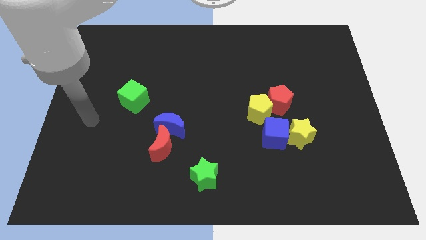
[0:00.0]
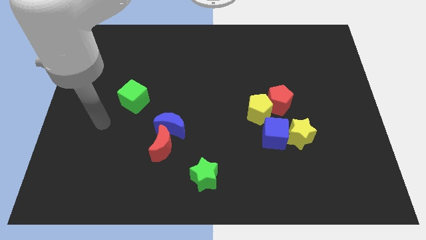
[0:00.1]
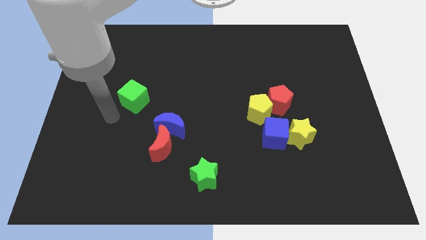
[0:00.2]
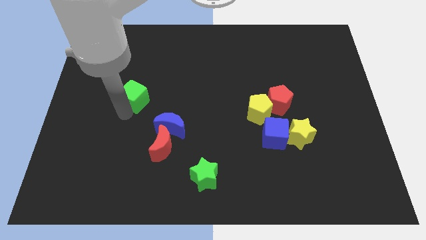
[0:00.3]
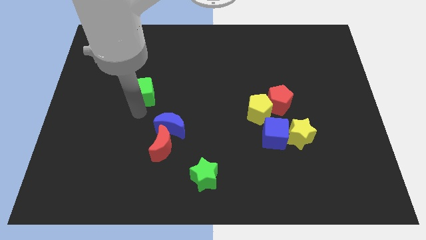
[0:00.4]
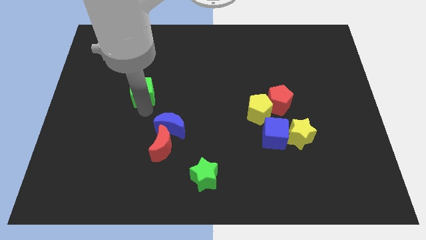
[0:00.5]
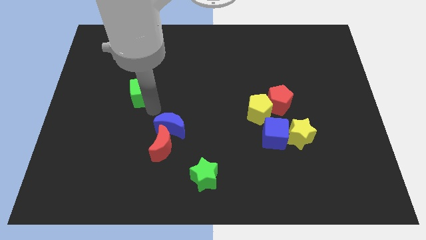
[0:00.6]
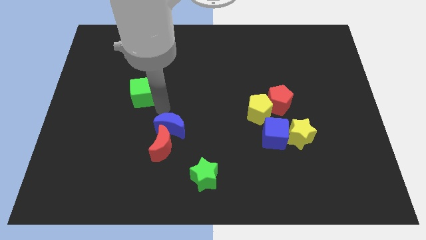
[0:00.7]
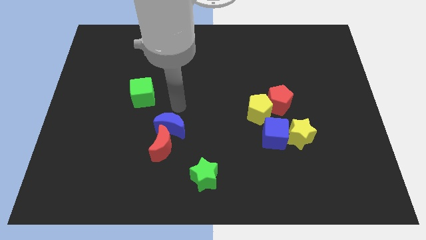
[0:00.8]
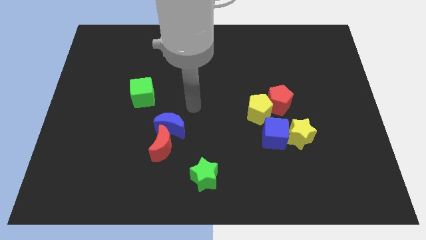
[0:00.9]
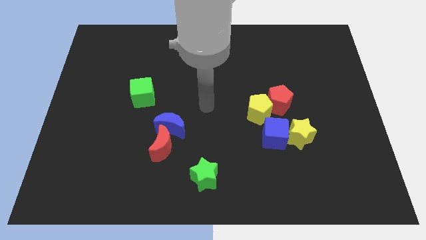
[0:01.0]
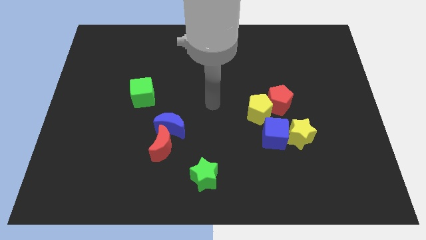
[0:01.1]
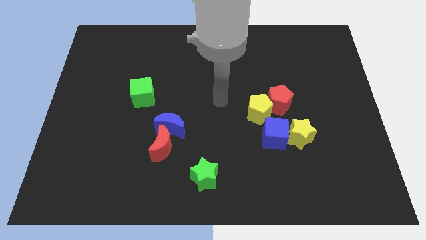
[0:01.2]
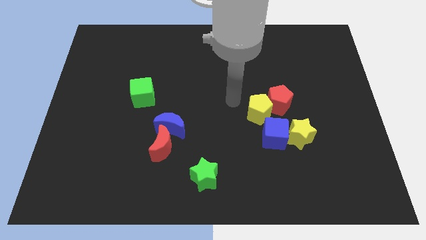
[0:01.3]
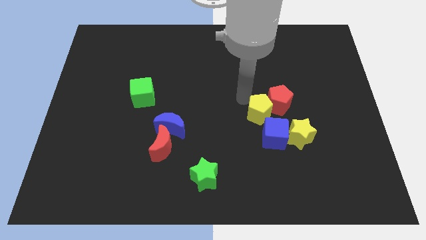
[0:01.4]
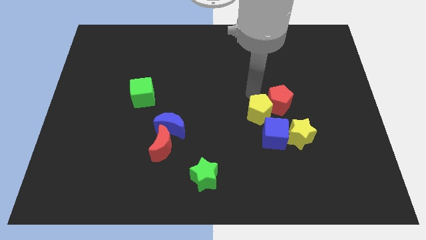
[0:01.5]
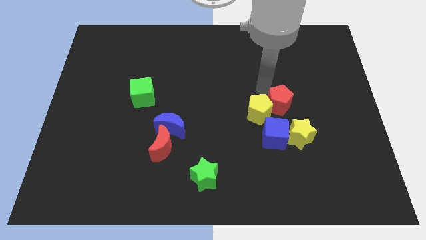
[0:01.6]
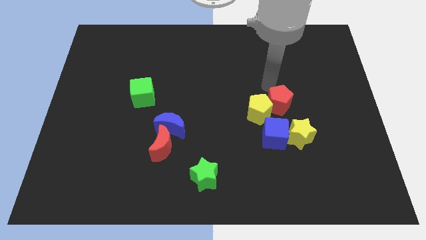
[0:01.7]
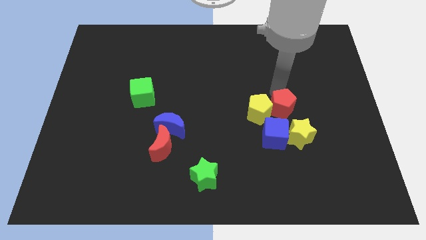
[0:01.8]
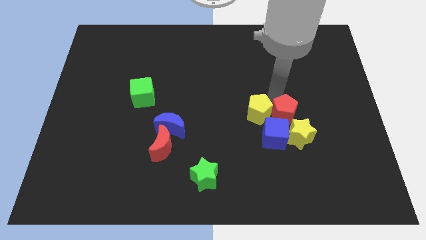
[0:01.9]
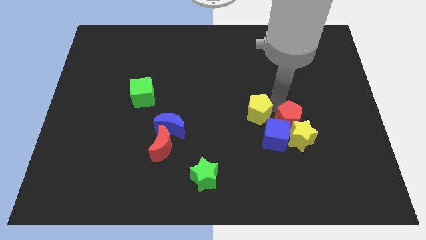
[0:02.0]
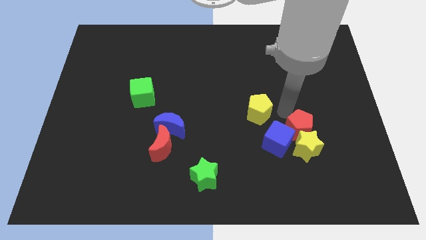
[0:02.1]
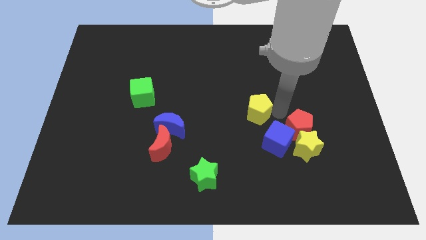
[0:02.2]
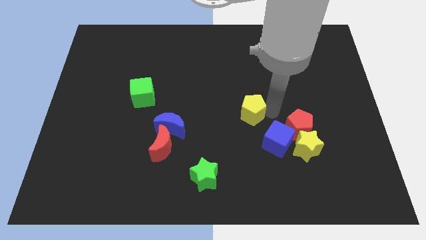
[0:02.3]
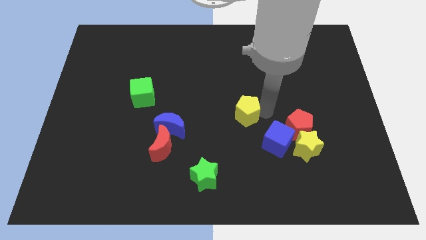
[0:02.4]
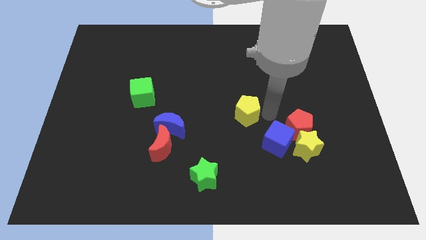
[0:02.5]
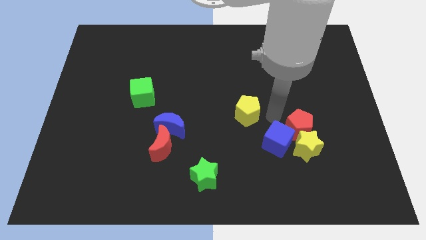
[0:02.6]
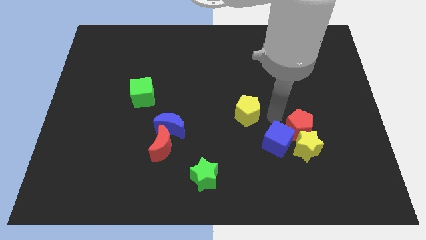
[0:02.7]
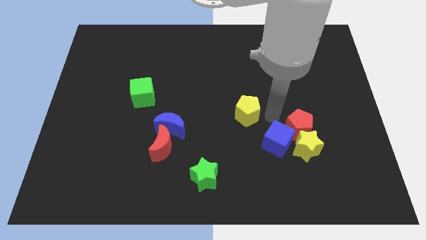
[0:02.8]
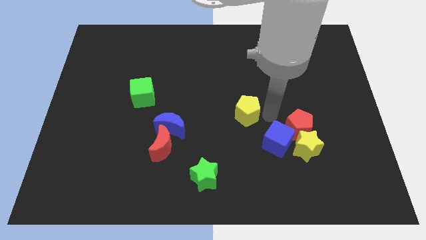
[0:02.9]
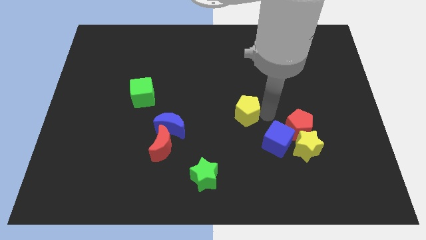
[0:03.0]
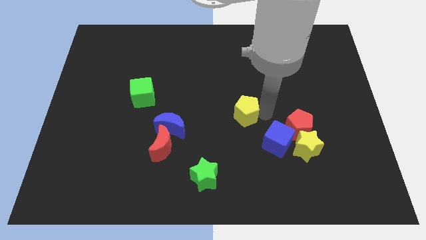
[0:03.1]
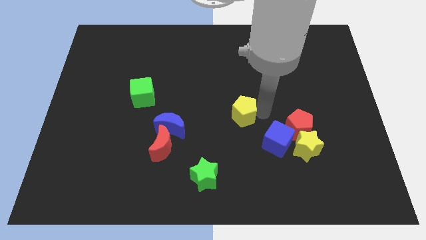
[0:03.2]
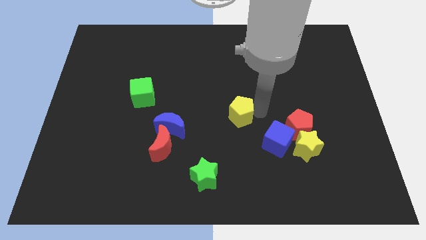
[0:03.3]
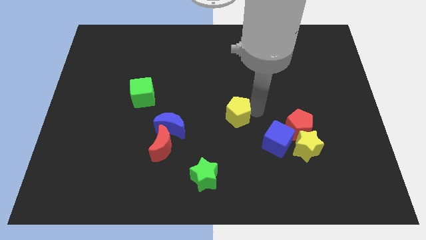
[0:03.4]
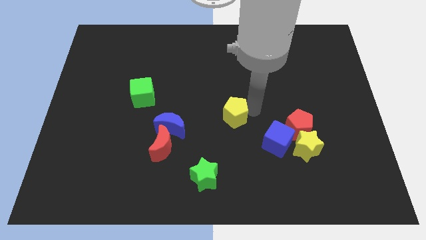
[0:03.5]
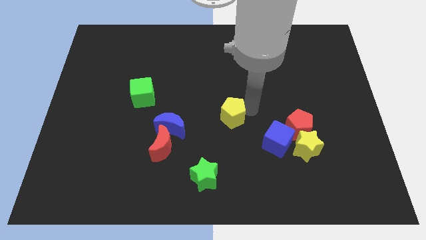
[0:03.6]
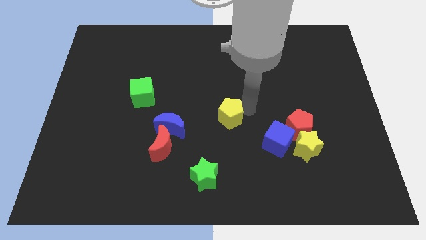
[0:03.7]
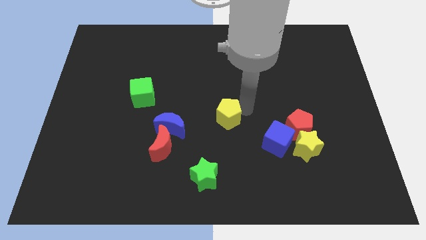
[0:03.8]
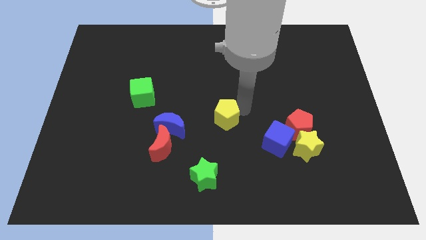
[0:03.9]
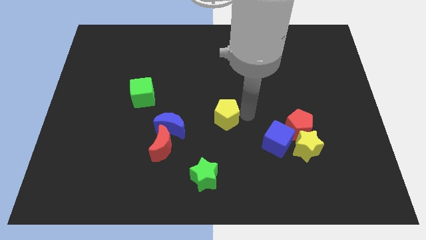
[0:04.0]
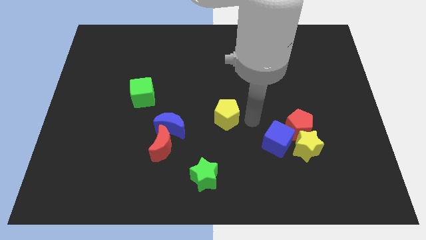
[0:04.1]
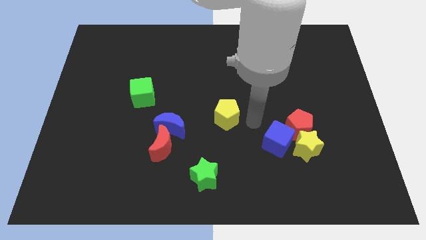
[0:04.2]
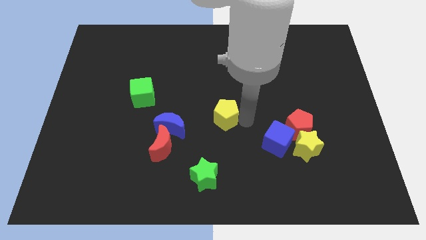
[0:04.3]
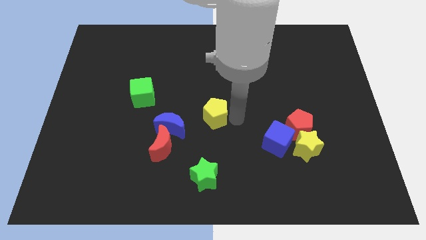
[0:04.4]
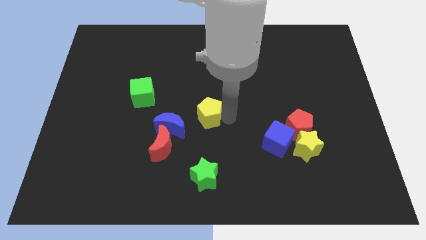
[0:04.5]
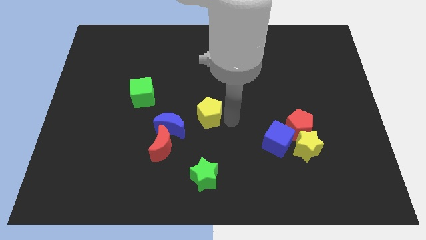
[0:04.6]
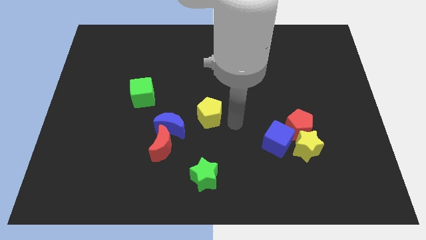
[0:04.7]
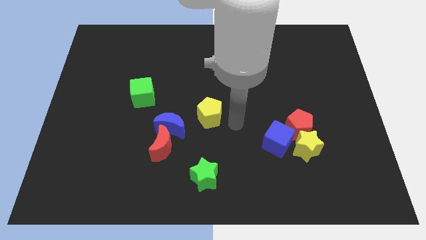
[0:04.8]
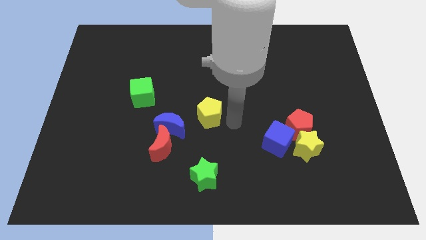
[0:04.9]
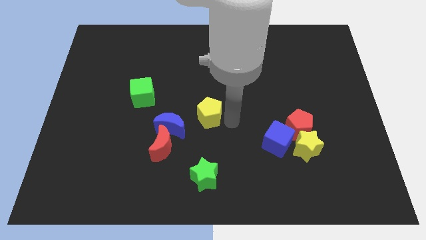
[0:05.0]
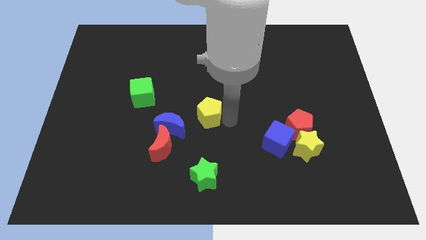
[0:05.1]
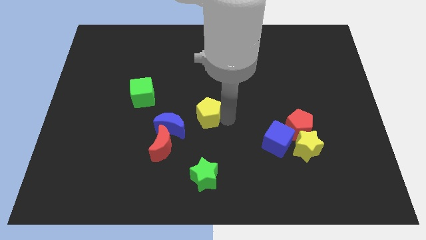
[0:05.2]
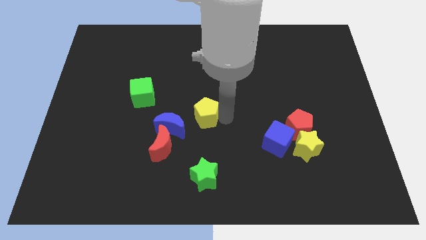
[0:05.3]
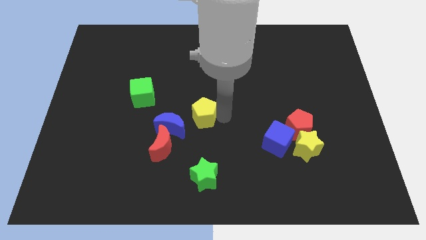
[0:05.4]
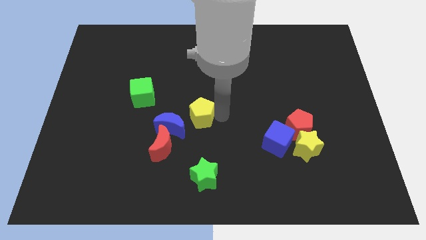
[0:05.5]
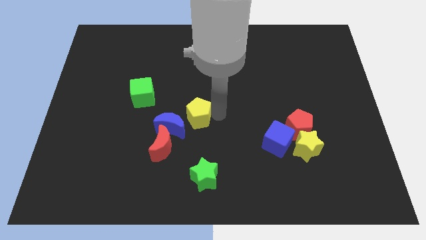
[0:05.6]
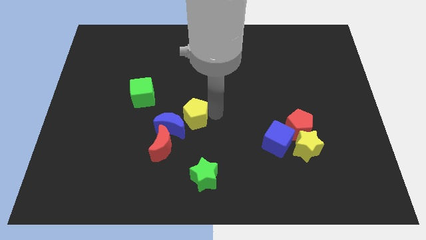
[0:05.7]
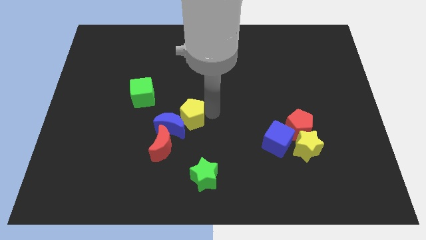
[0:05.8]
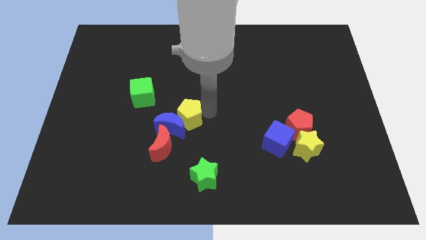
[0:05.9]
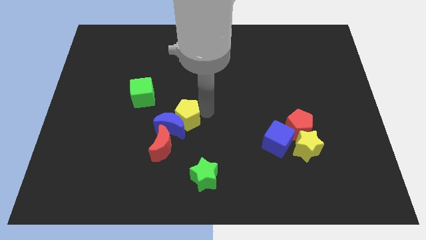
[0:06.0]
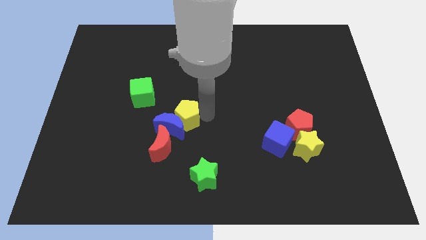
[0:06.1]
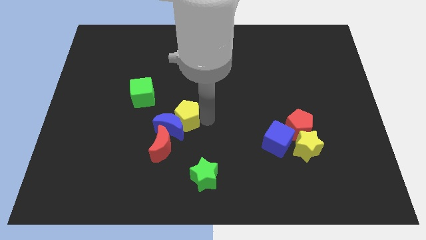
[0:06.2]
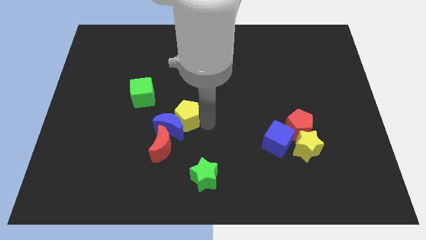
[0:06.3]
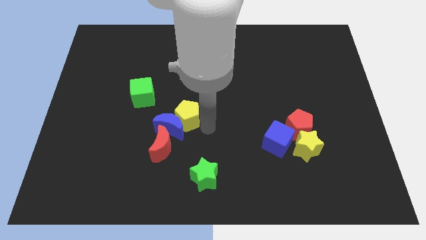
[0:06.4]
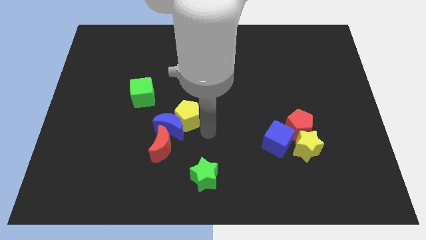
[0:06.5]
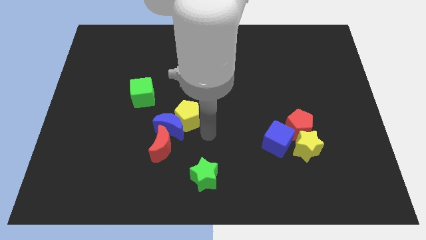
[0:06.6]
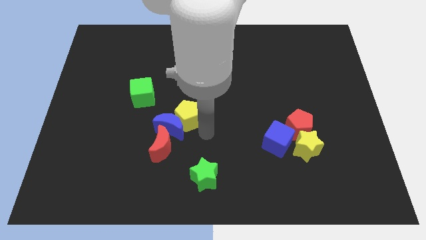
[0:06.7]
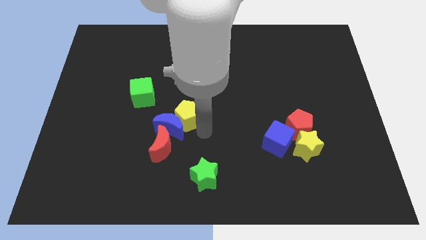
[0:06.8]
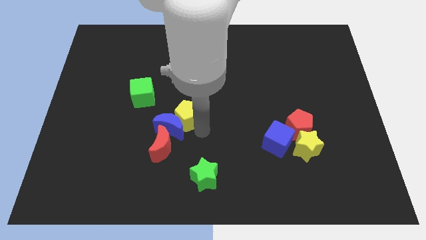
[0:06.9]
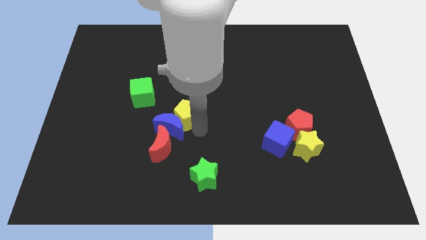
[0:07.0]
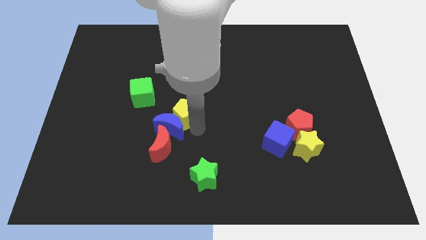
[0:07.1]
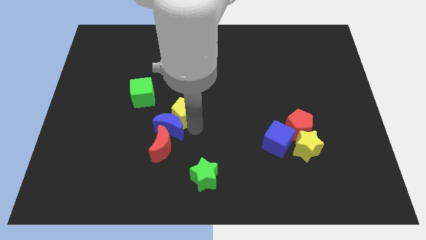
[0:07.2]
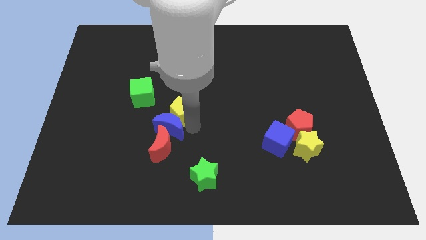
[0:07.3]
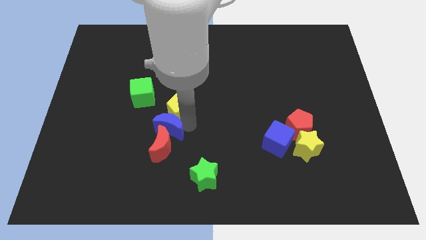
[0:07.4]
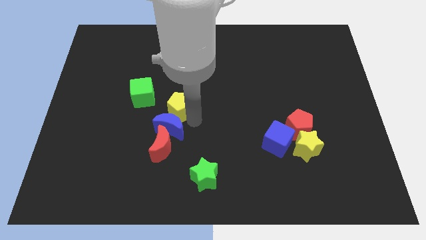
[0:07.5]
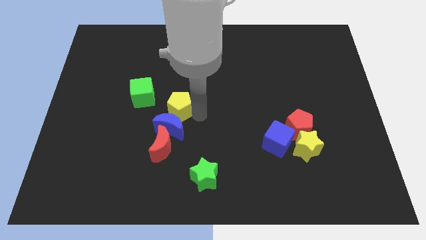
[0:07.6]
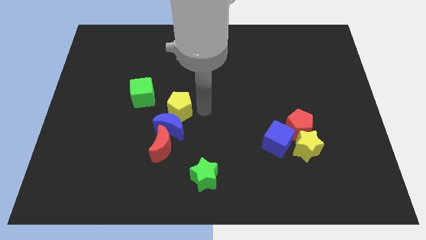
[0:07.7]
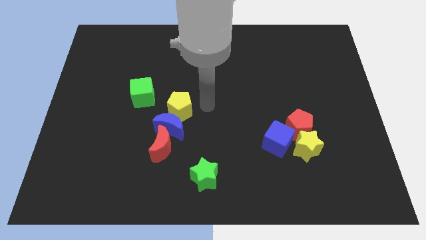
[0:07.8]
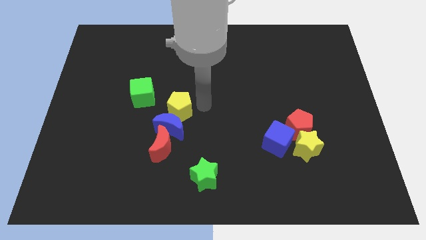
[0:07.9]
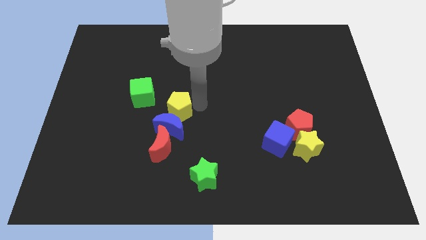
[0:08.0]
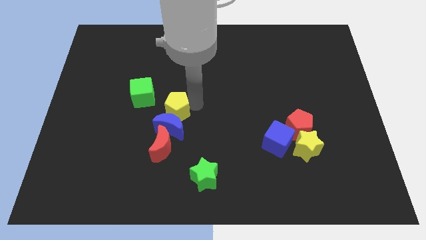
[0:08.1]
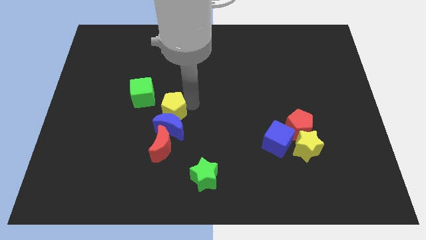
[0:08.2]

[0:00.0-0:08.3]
move the yellow pentagon to the left
